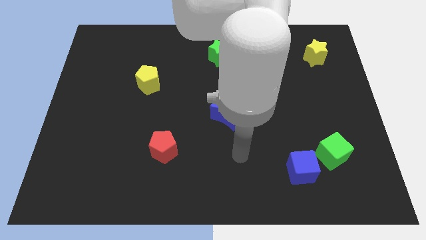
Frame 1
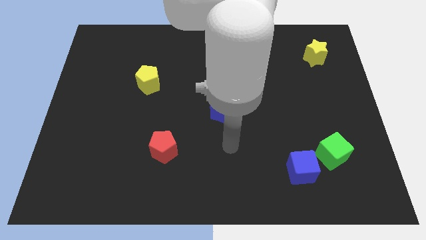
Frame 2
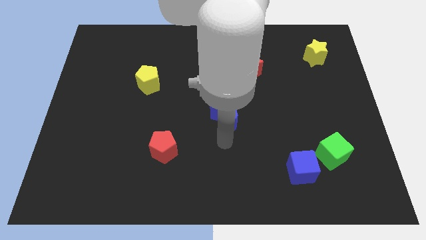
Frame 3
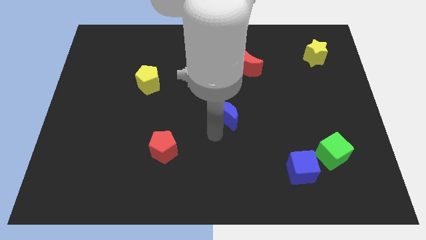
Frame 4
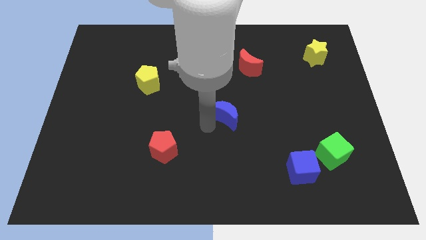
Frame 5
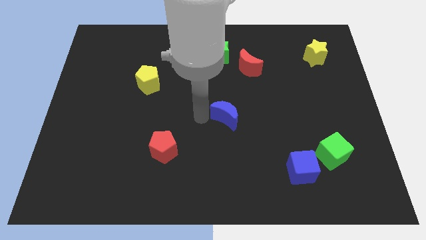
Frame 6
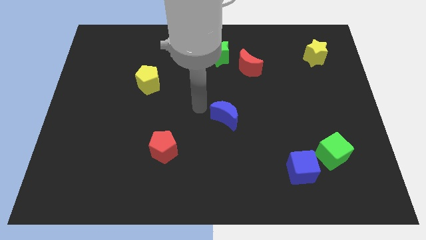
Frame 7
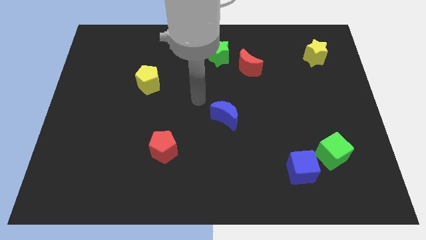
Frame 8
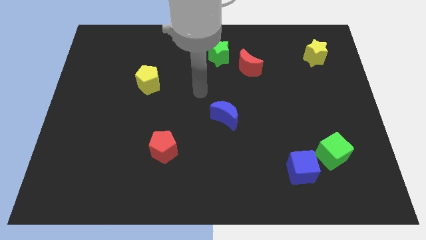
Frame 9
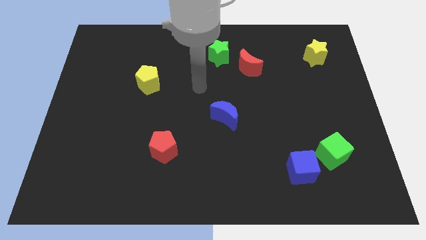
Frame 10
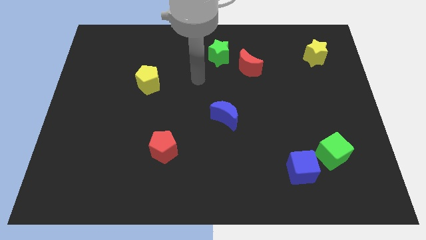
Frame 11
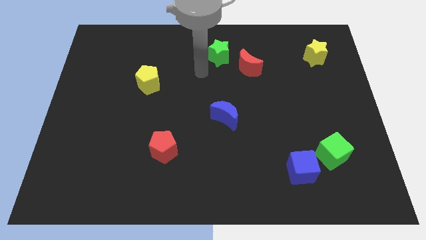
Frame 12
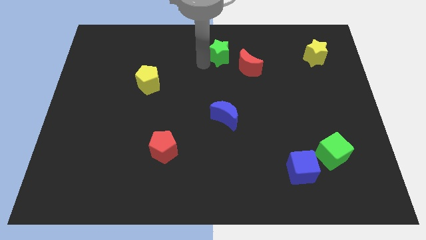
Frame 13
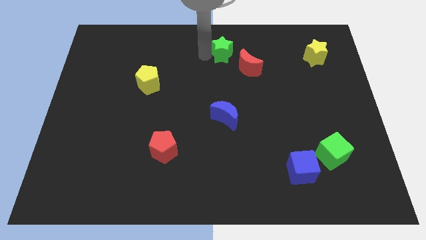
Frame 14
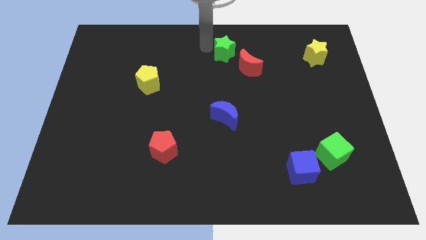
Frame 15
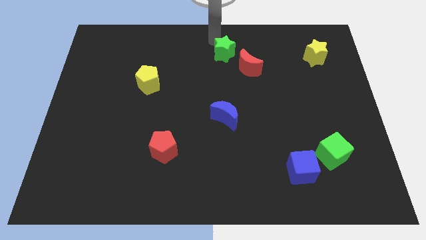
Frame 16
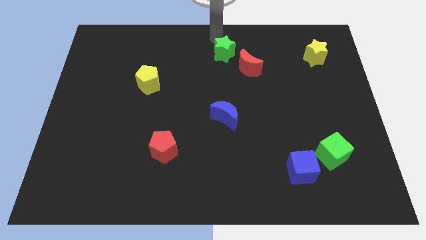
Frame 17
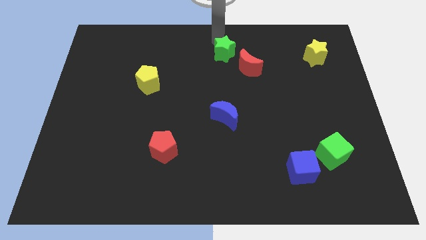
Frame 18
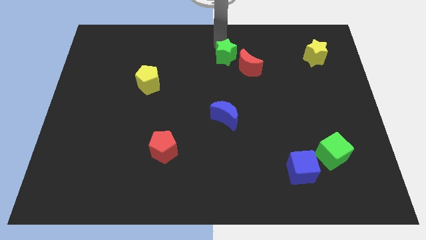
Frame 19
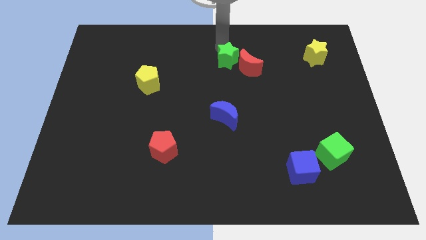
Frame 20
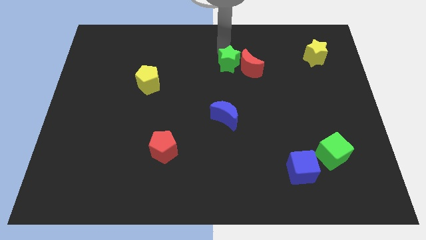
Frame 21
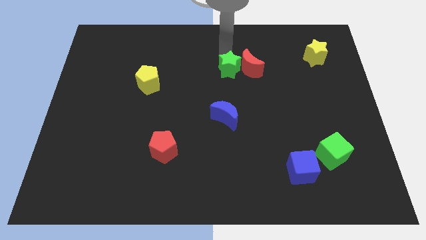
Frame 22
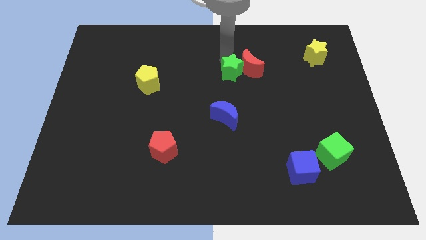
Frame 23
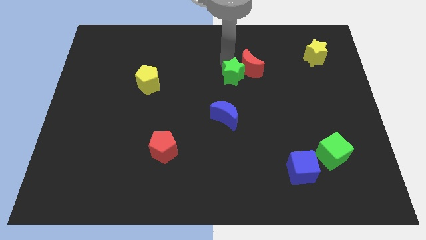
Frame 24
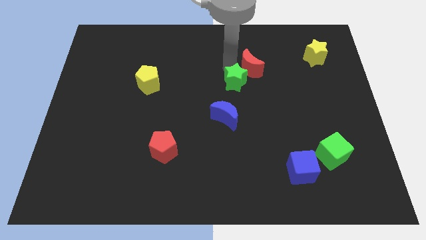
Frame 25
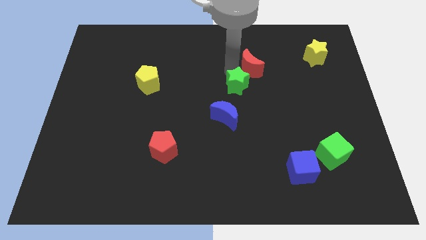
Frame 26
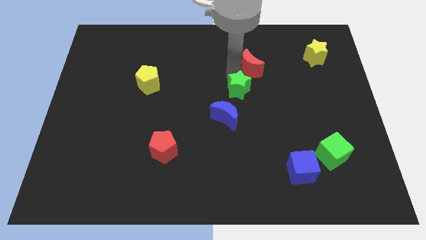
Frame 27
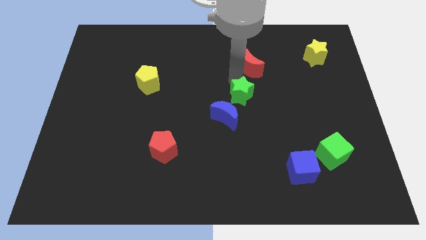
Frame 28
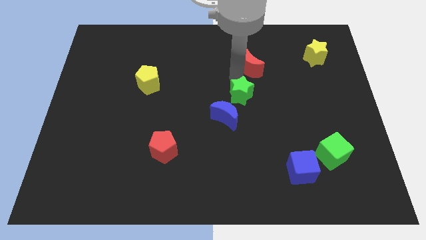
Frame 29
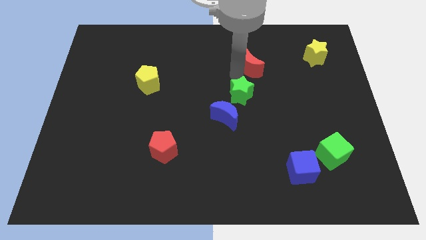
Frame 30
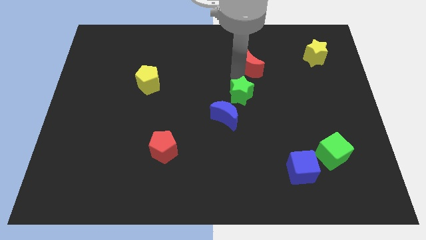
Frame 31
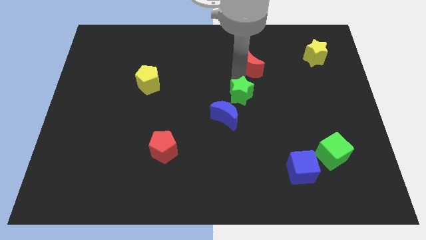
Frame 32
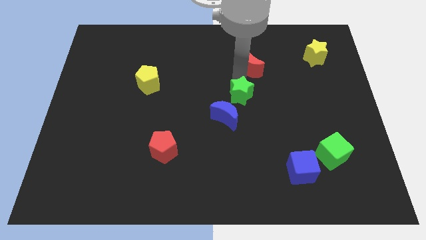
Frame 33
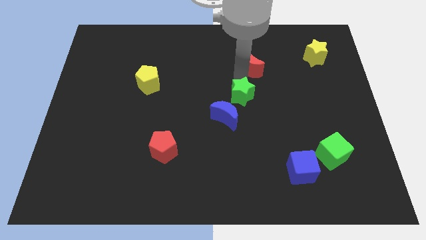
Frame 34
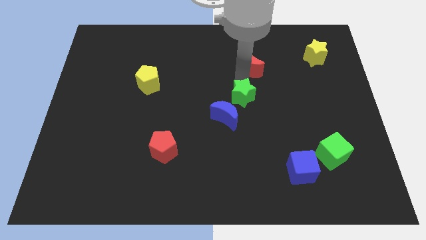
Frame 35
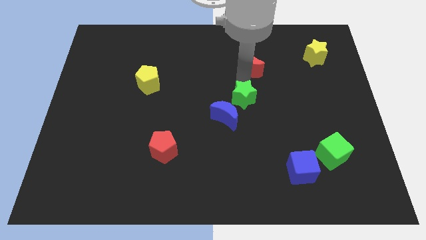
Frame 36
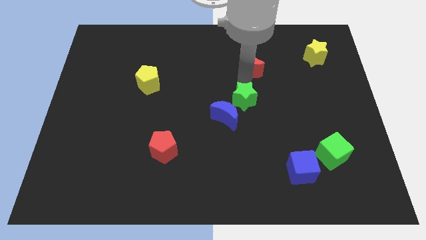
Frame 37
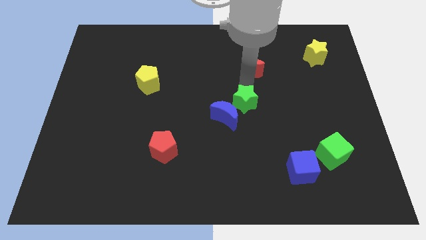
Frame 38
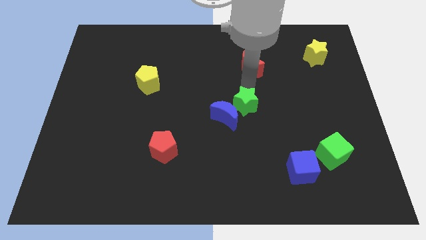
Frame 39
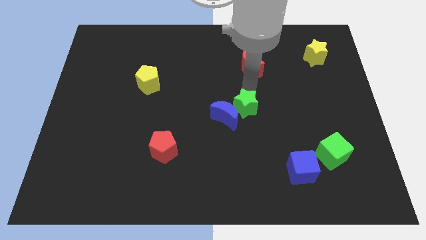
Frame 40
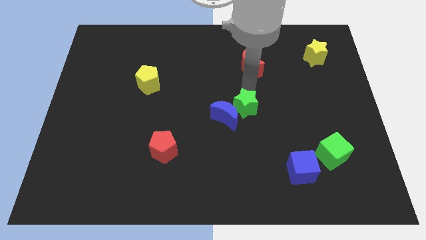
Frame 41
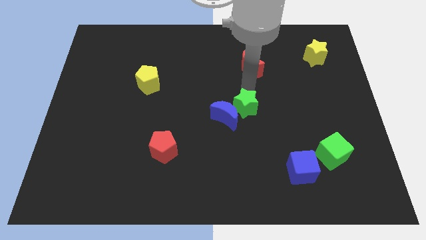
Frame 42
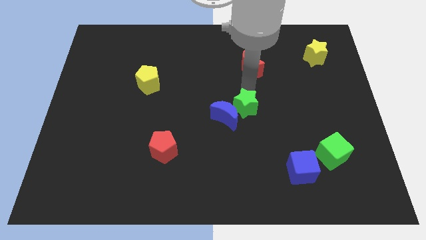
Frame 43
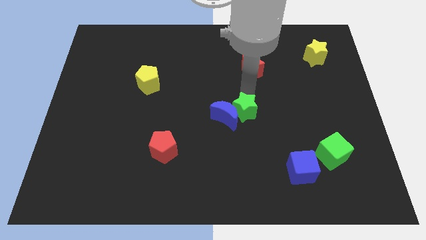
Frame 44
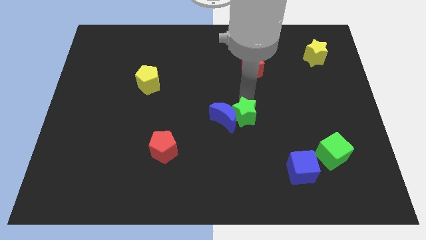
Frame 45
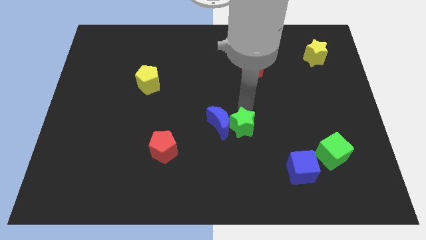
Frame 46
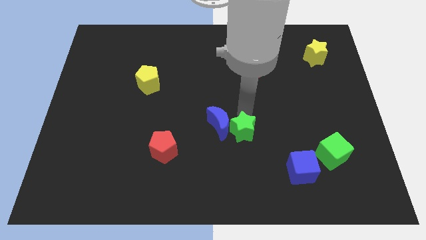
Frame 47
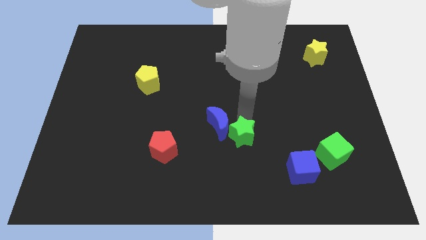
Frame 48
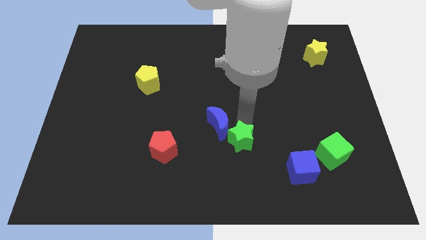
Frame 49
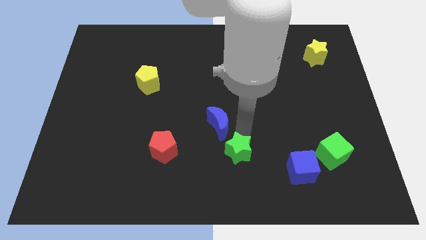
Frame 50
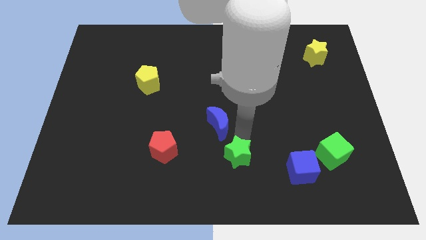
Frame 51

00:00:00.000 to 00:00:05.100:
push the green star to the bottom

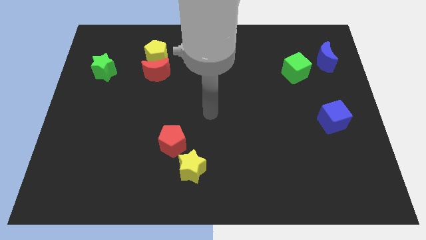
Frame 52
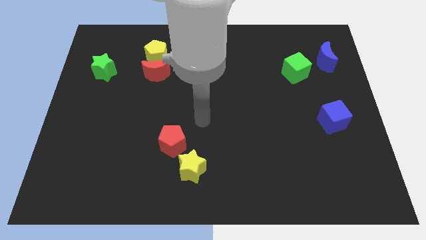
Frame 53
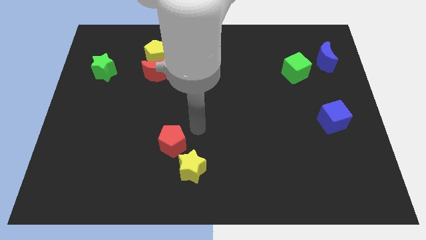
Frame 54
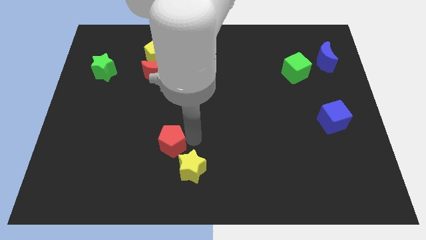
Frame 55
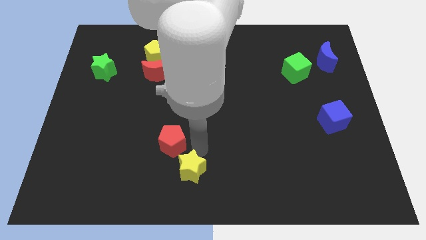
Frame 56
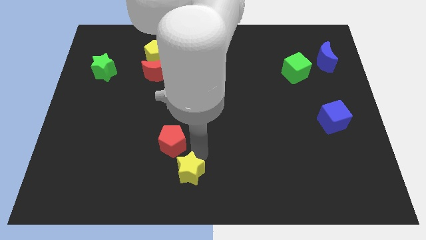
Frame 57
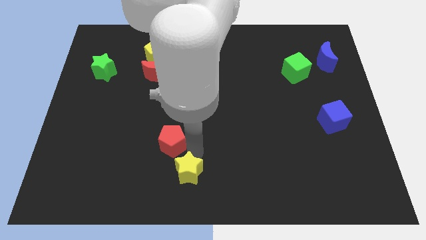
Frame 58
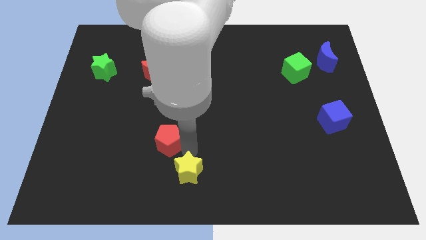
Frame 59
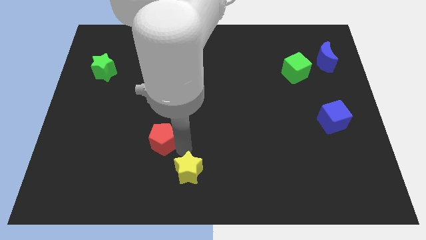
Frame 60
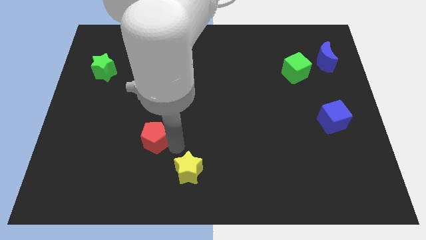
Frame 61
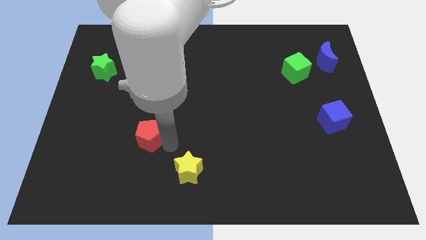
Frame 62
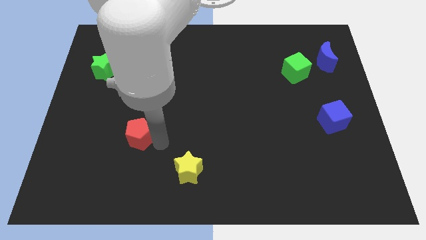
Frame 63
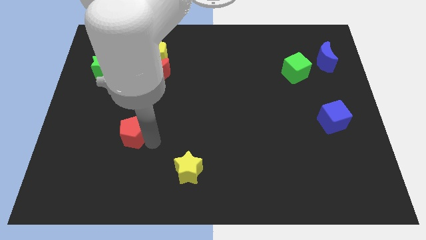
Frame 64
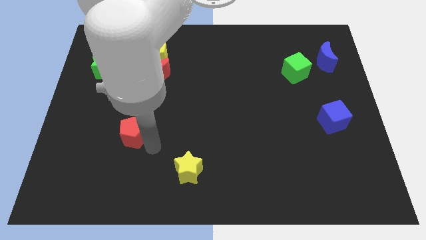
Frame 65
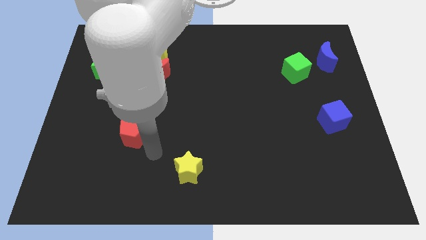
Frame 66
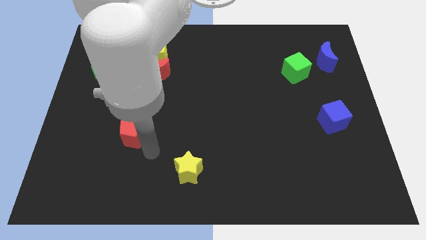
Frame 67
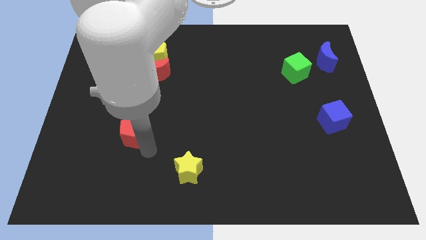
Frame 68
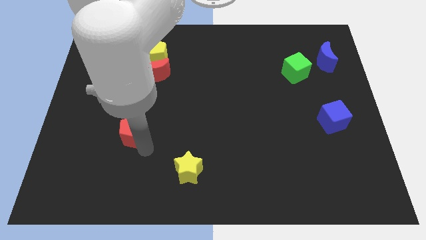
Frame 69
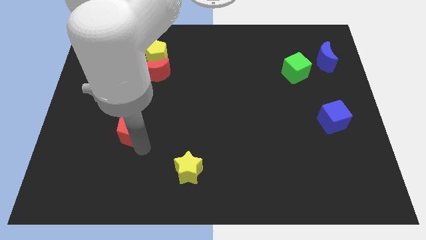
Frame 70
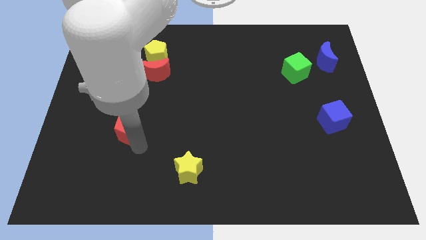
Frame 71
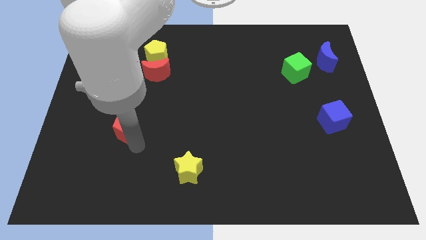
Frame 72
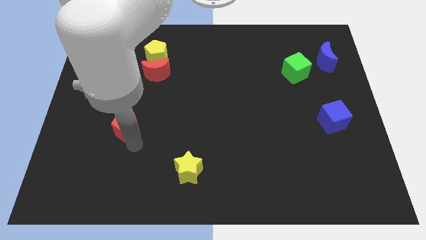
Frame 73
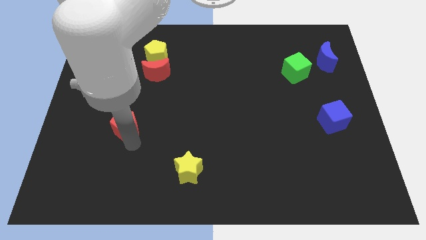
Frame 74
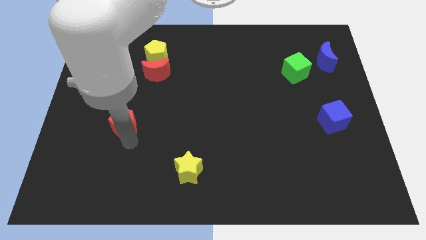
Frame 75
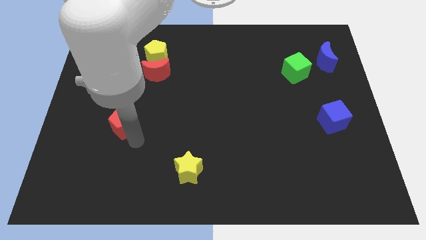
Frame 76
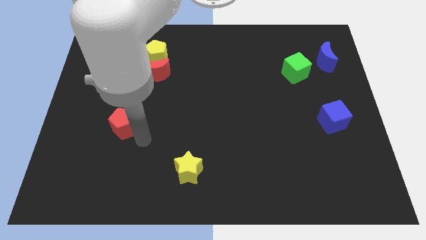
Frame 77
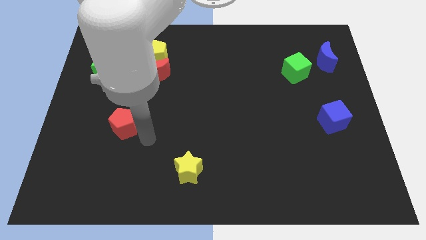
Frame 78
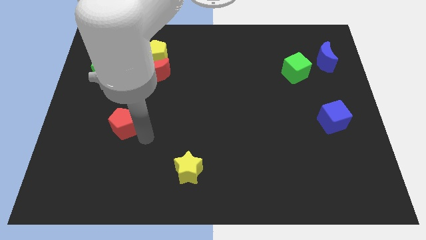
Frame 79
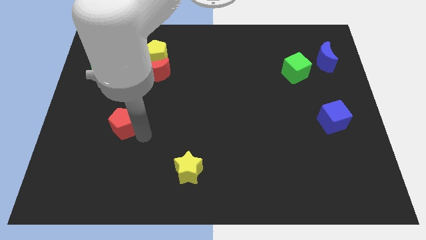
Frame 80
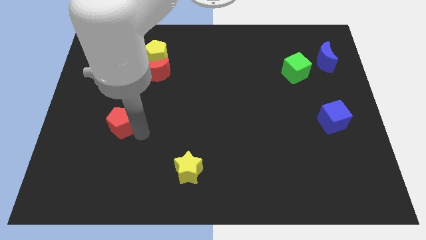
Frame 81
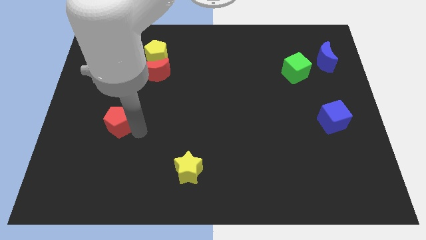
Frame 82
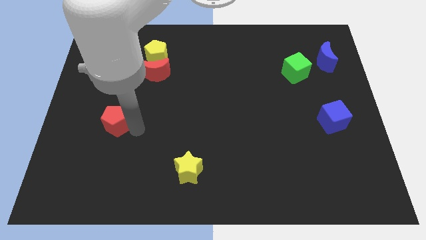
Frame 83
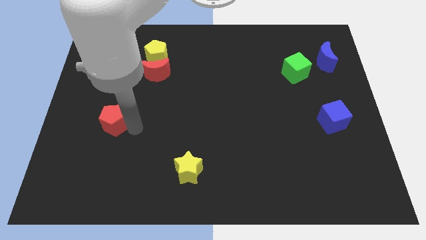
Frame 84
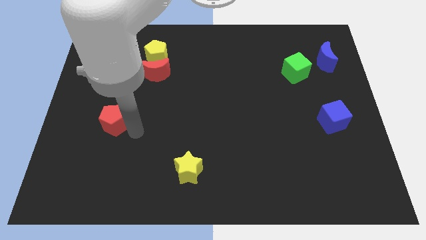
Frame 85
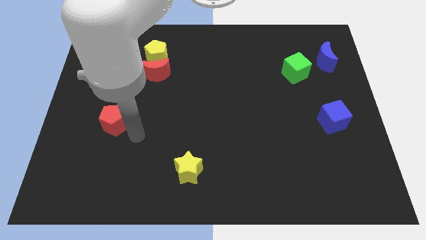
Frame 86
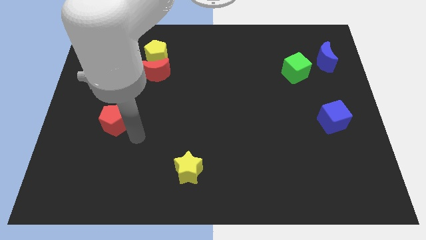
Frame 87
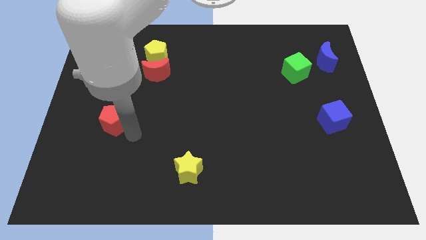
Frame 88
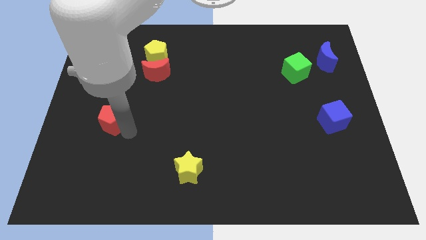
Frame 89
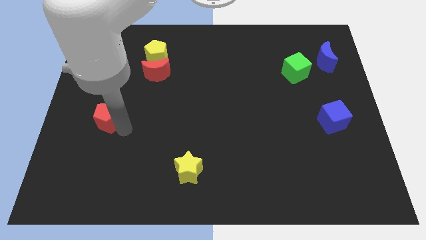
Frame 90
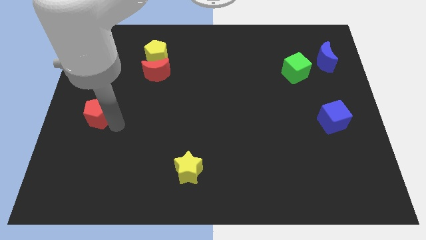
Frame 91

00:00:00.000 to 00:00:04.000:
move the red pentagon to the left side
